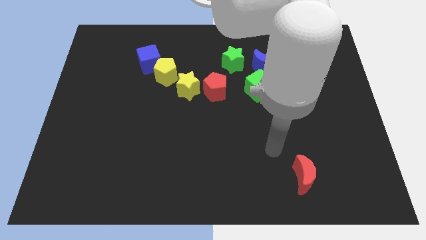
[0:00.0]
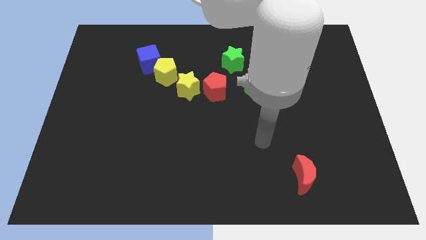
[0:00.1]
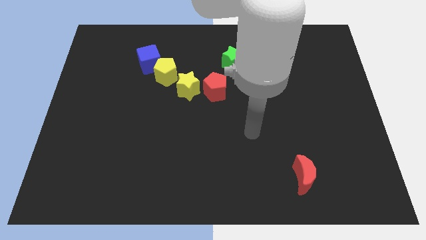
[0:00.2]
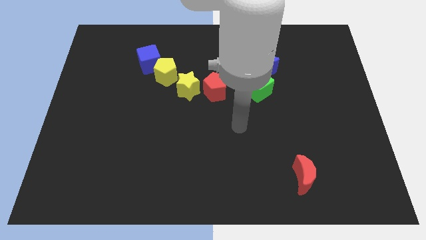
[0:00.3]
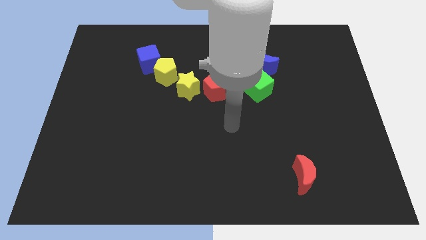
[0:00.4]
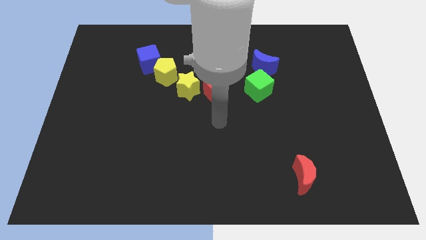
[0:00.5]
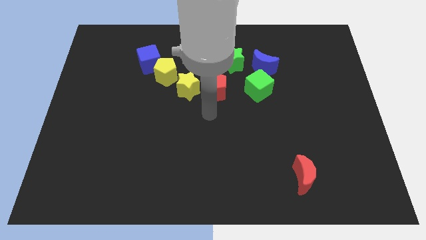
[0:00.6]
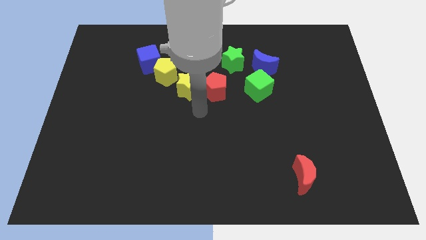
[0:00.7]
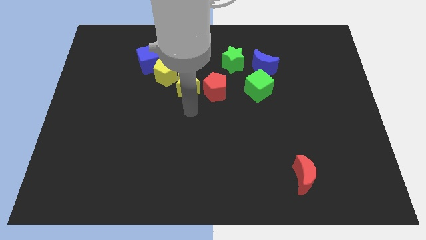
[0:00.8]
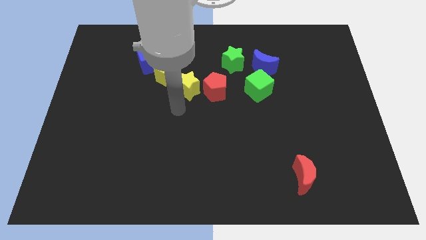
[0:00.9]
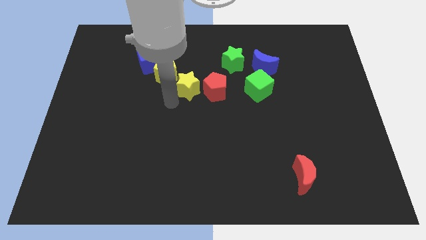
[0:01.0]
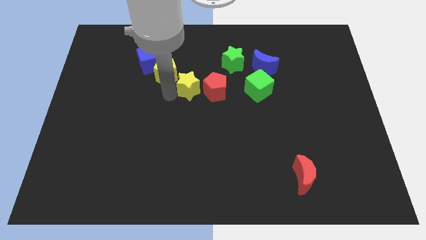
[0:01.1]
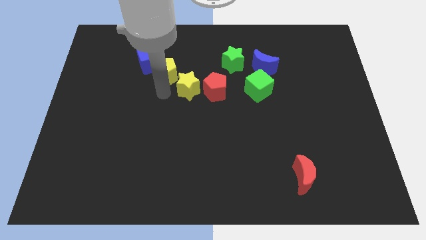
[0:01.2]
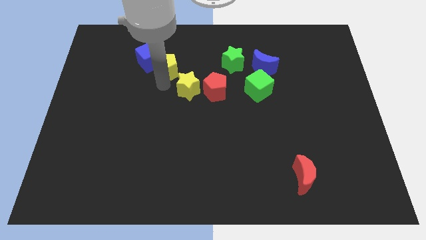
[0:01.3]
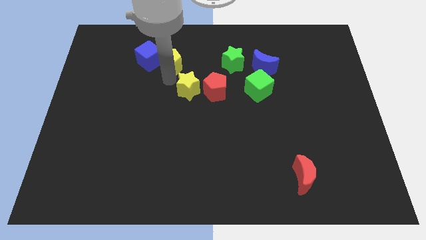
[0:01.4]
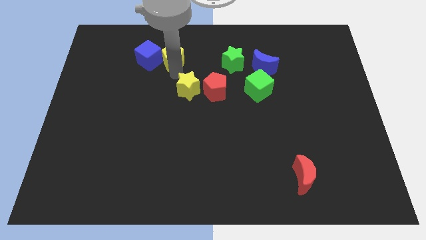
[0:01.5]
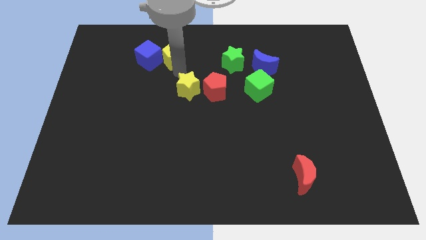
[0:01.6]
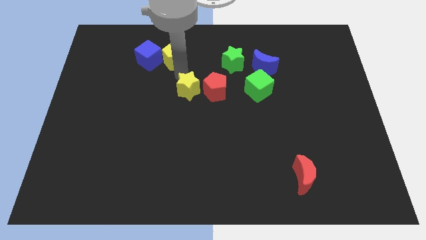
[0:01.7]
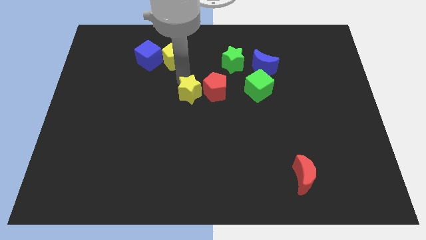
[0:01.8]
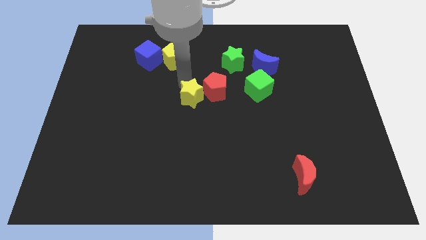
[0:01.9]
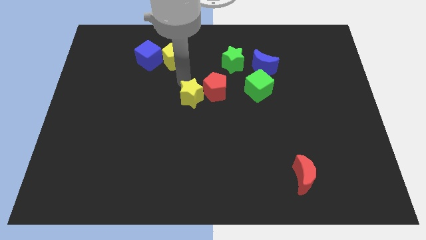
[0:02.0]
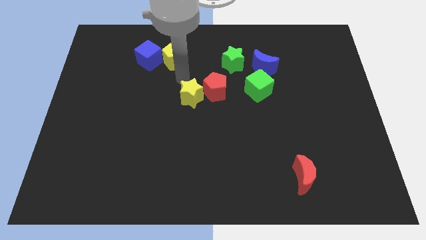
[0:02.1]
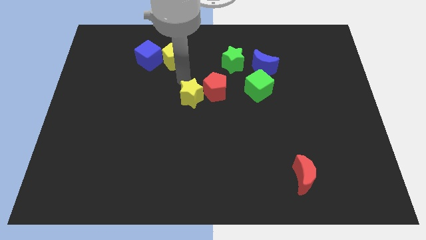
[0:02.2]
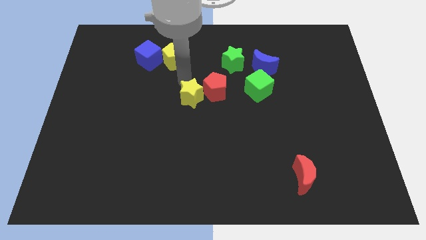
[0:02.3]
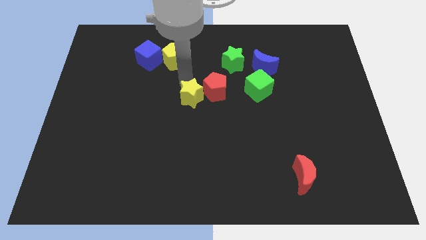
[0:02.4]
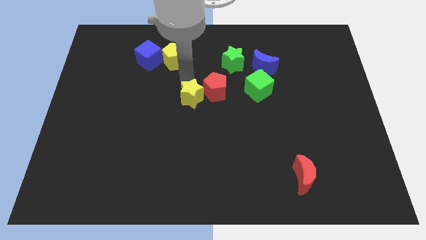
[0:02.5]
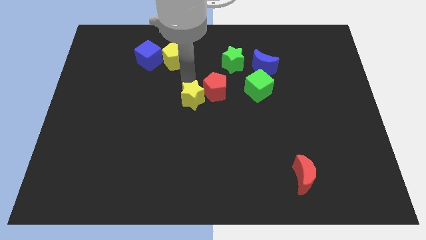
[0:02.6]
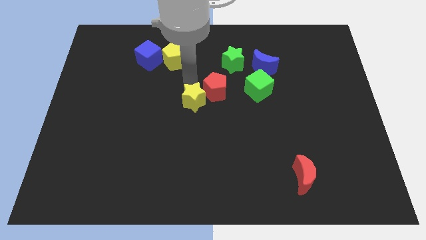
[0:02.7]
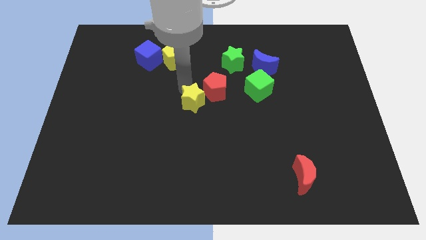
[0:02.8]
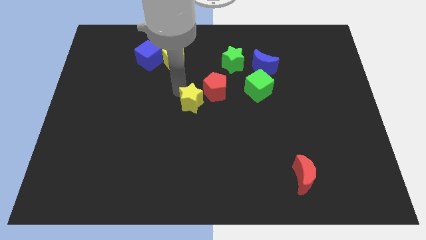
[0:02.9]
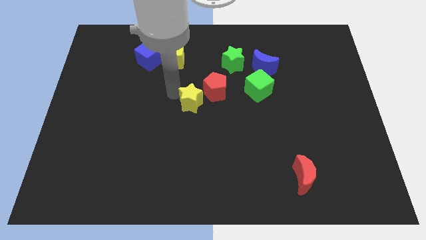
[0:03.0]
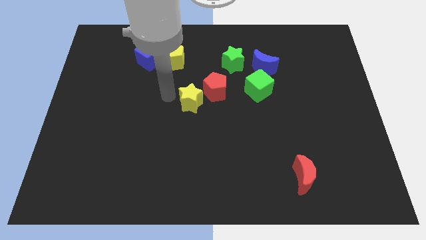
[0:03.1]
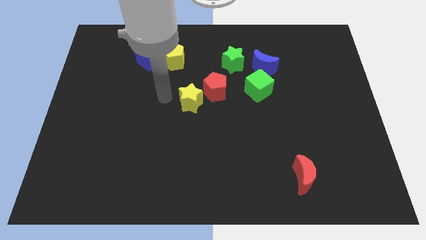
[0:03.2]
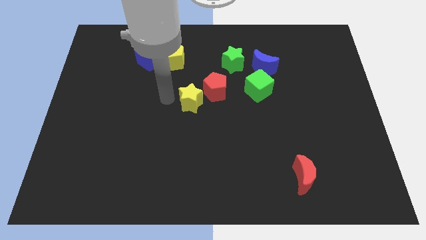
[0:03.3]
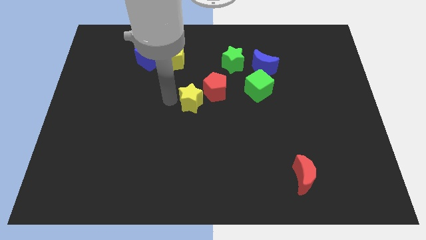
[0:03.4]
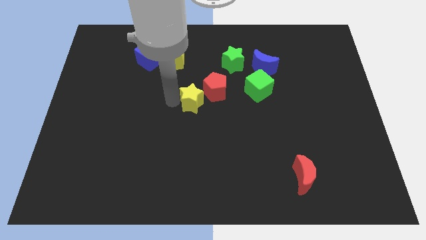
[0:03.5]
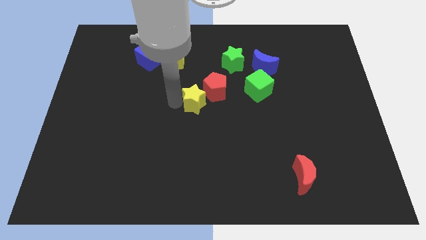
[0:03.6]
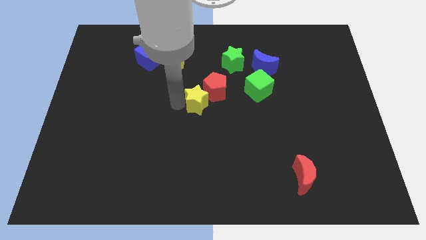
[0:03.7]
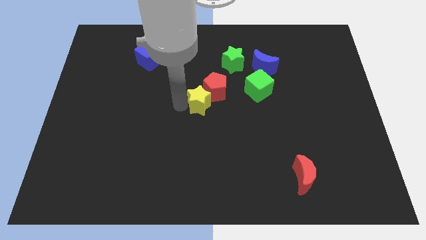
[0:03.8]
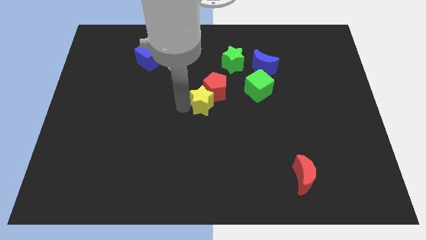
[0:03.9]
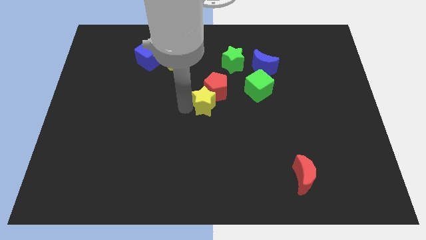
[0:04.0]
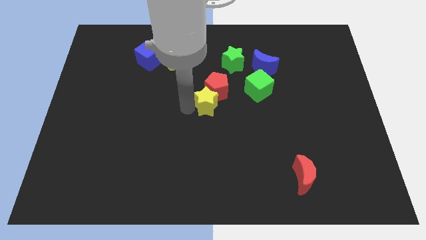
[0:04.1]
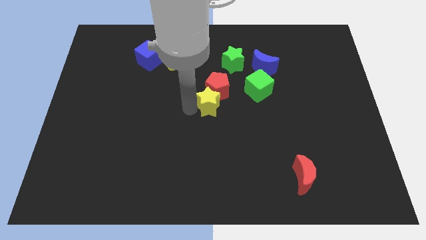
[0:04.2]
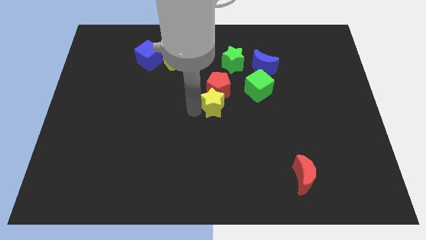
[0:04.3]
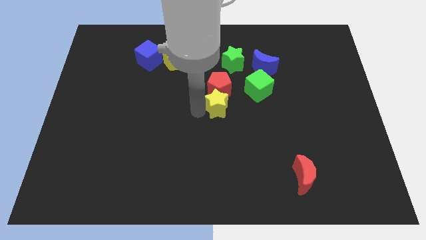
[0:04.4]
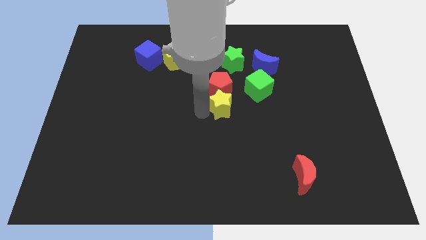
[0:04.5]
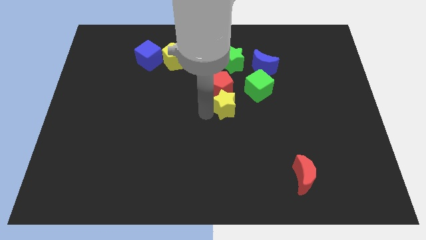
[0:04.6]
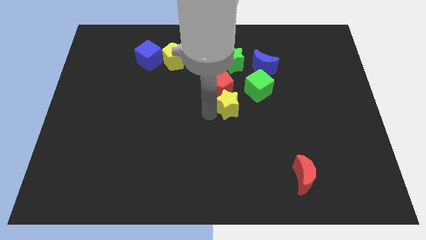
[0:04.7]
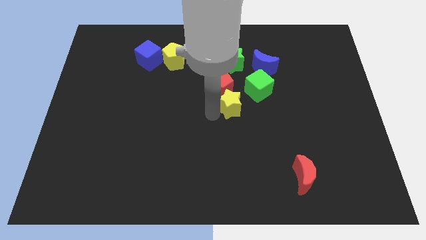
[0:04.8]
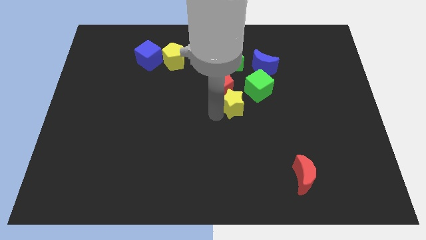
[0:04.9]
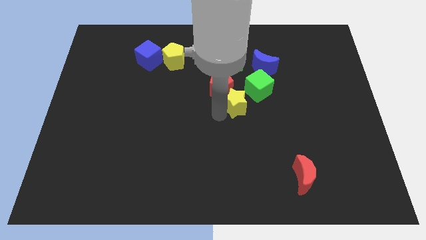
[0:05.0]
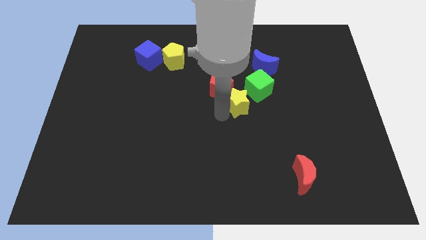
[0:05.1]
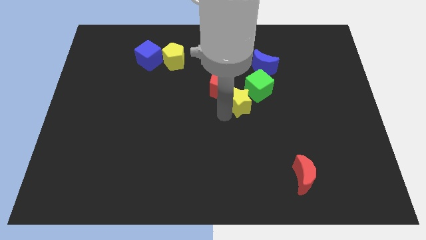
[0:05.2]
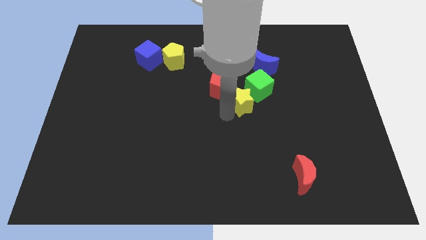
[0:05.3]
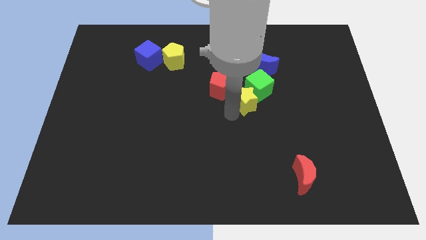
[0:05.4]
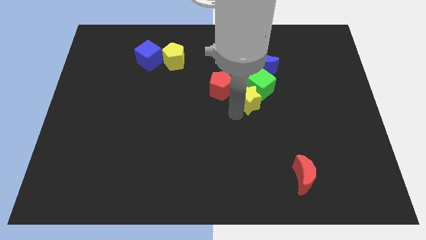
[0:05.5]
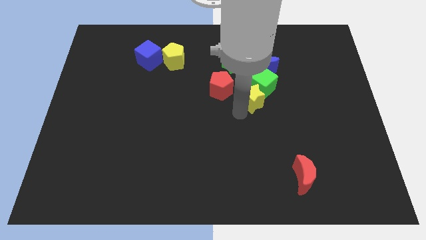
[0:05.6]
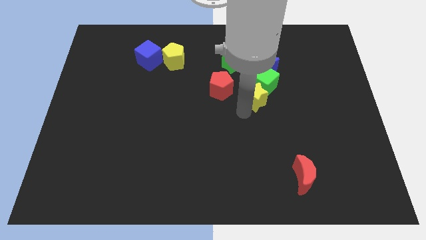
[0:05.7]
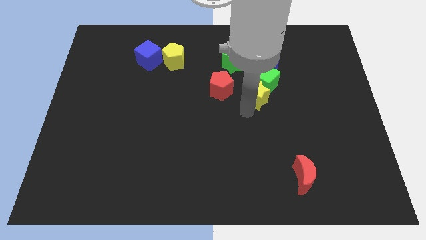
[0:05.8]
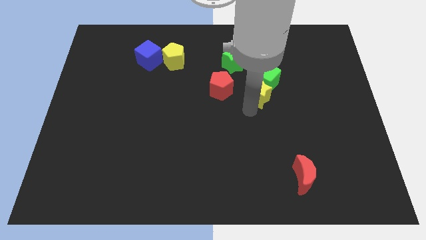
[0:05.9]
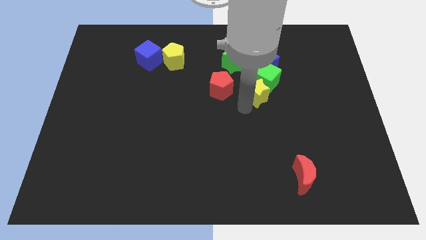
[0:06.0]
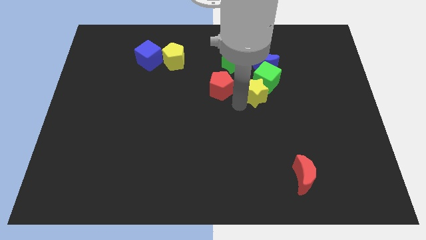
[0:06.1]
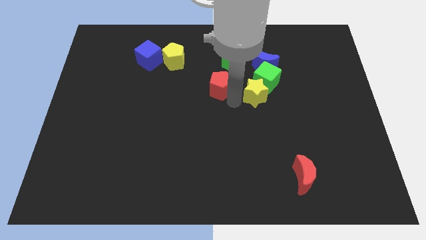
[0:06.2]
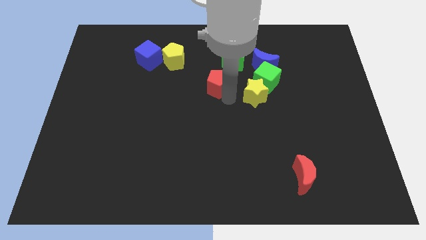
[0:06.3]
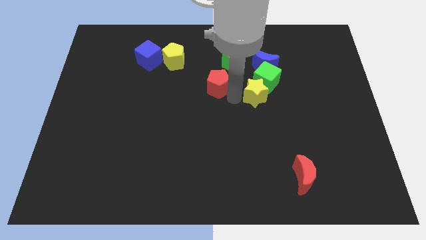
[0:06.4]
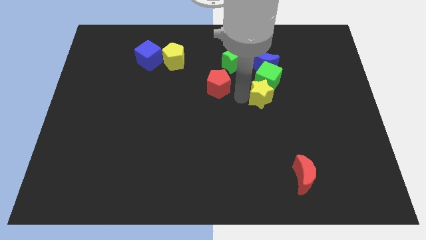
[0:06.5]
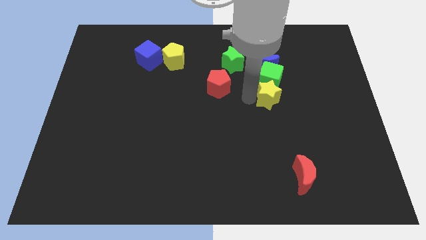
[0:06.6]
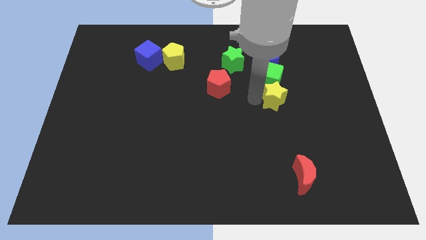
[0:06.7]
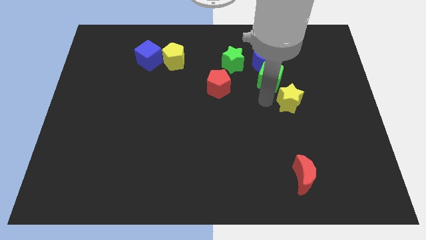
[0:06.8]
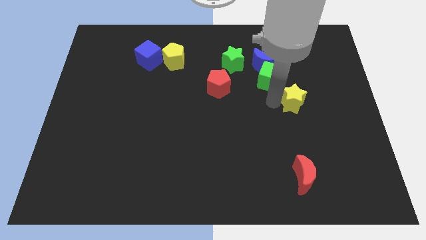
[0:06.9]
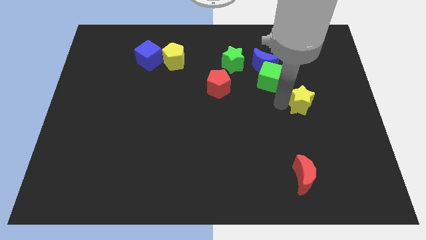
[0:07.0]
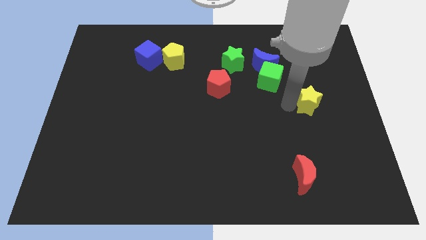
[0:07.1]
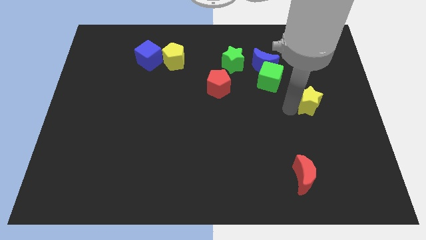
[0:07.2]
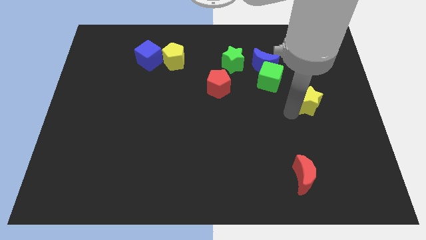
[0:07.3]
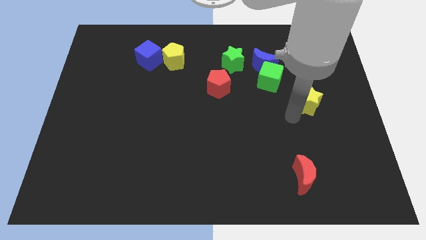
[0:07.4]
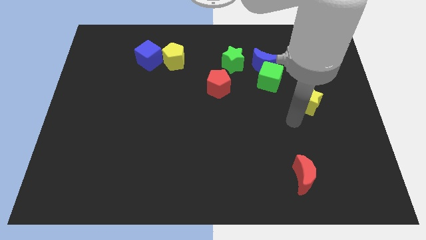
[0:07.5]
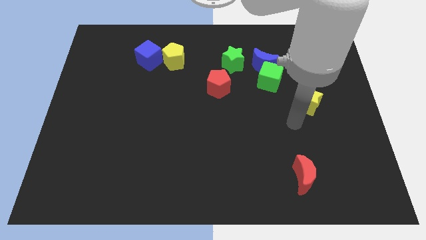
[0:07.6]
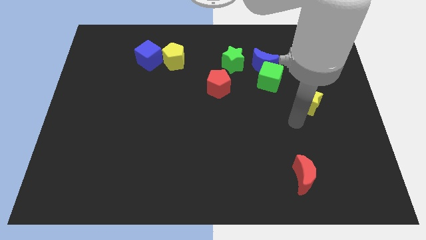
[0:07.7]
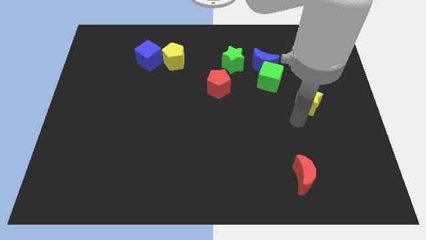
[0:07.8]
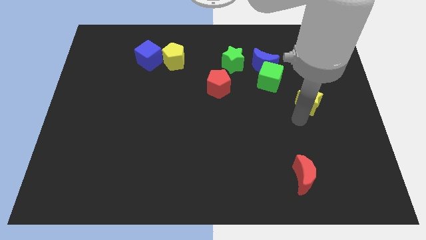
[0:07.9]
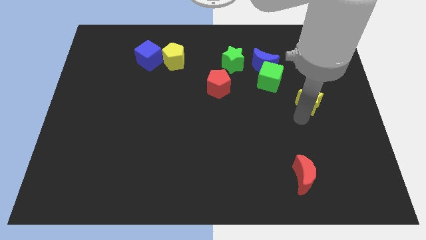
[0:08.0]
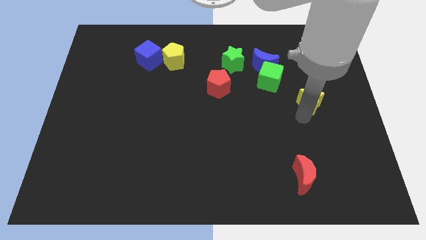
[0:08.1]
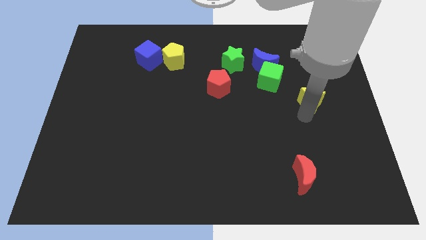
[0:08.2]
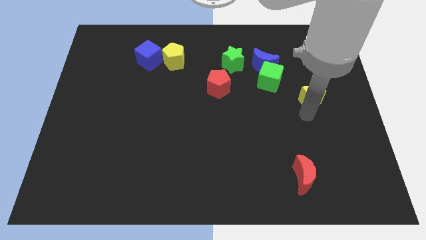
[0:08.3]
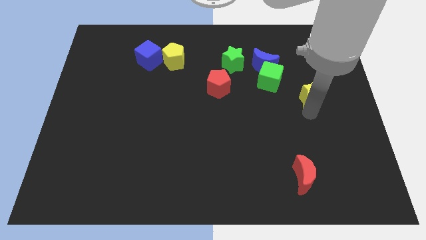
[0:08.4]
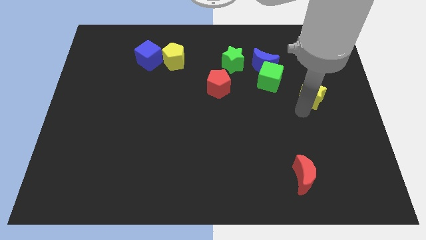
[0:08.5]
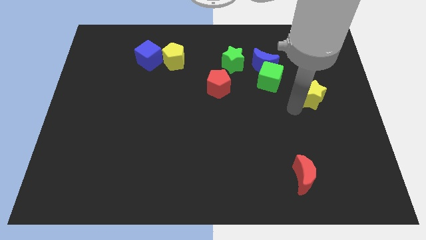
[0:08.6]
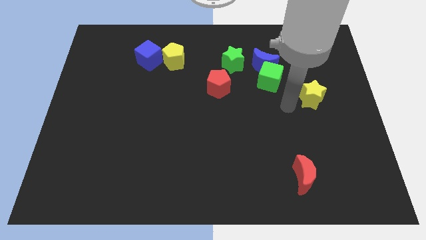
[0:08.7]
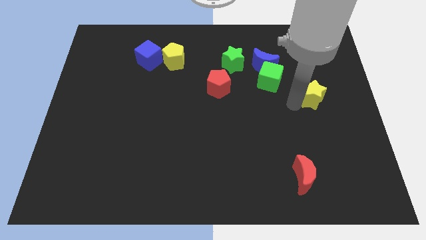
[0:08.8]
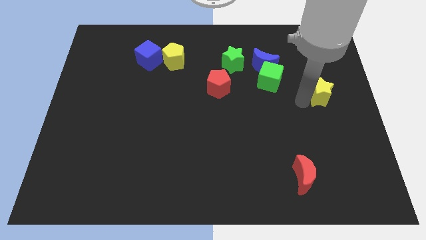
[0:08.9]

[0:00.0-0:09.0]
move the yellow star to the center right
